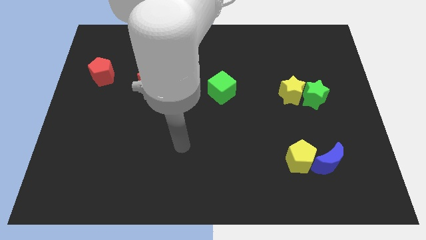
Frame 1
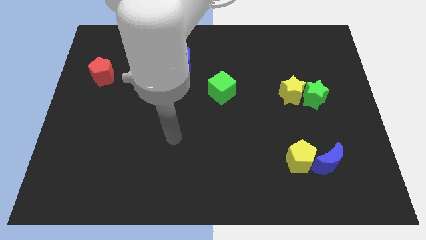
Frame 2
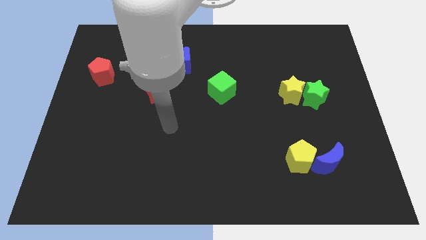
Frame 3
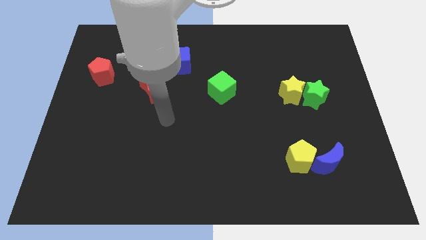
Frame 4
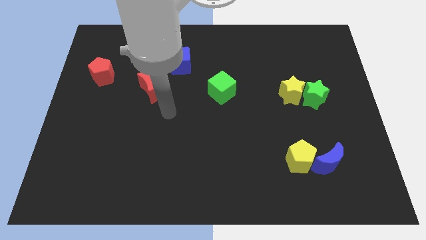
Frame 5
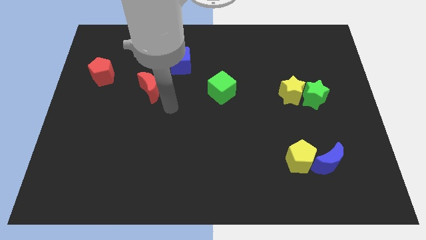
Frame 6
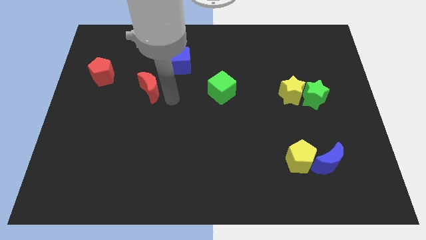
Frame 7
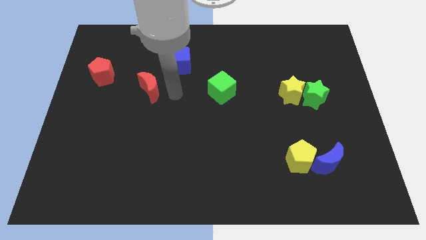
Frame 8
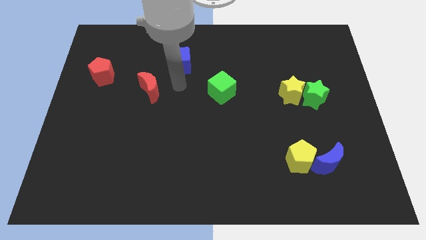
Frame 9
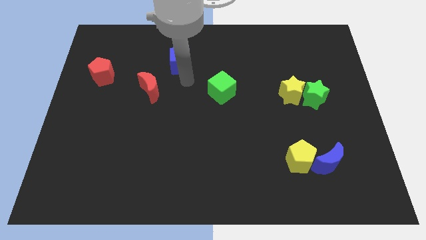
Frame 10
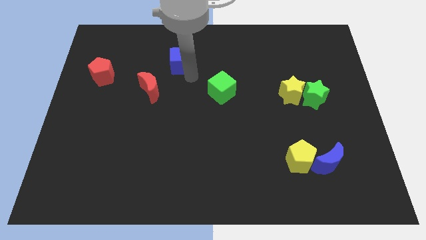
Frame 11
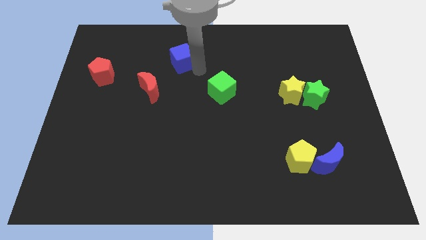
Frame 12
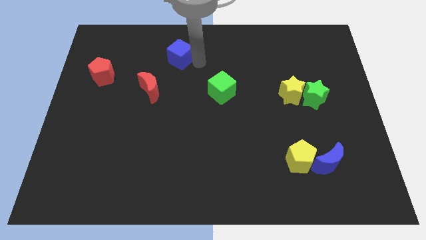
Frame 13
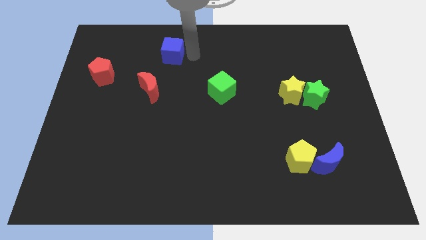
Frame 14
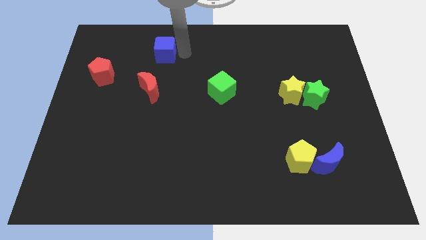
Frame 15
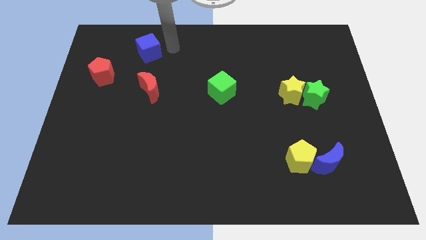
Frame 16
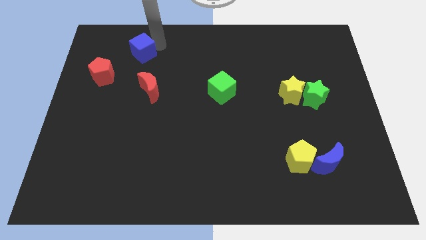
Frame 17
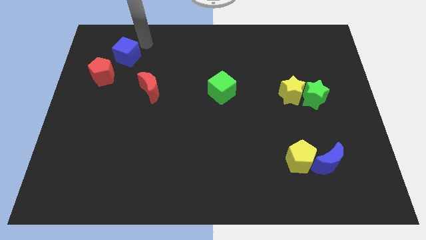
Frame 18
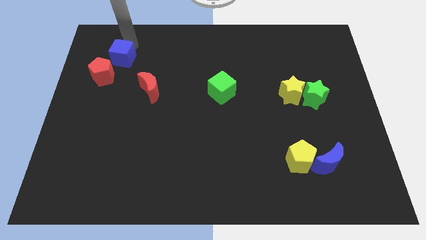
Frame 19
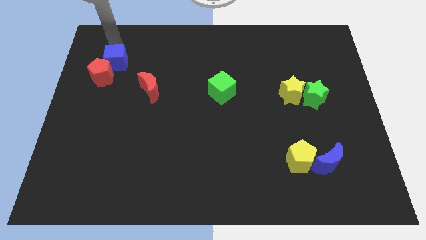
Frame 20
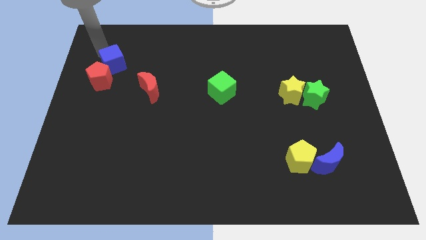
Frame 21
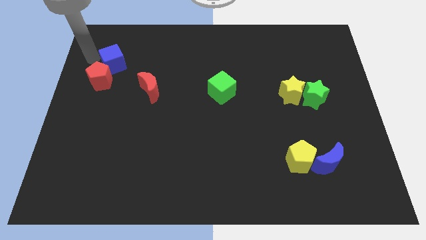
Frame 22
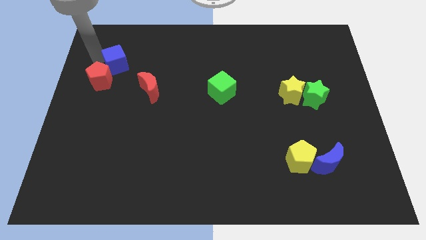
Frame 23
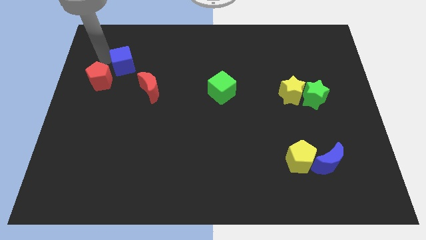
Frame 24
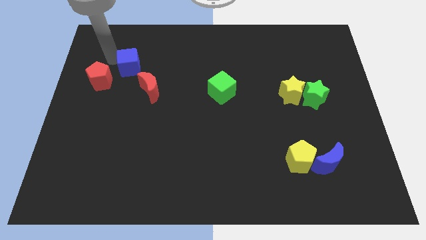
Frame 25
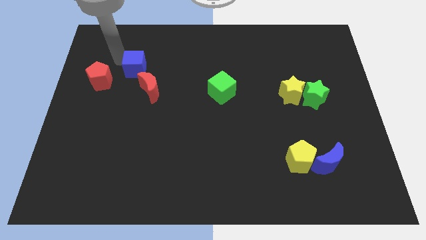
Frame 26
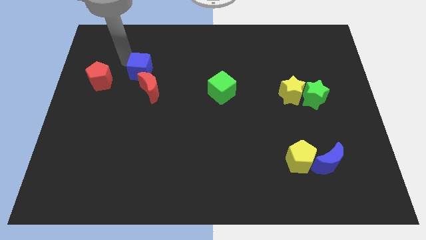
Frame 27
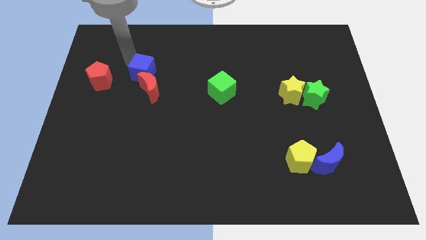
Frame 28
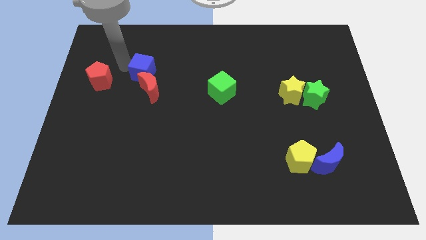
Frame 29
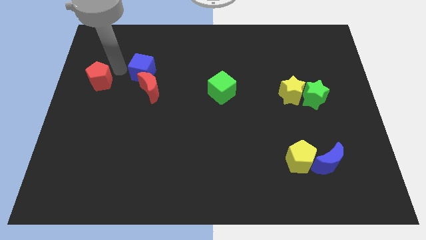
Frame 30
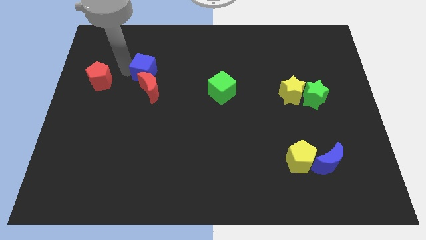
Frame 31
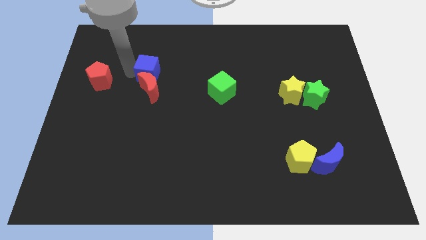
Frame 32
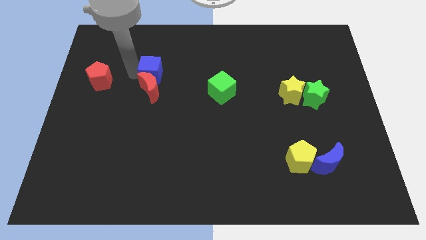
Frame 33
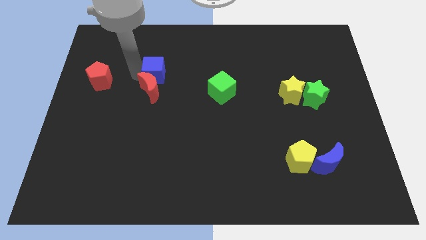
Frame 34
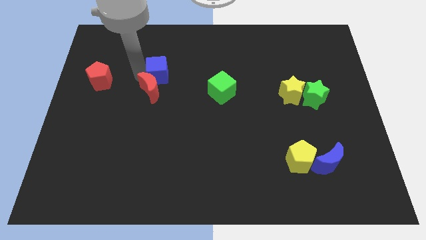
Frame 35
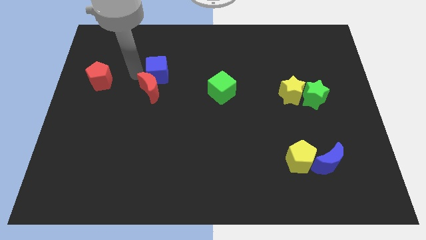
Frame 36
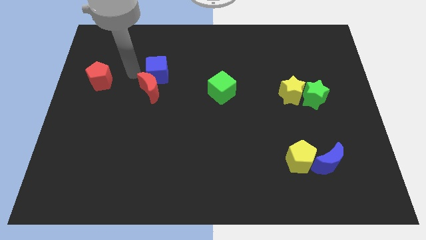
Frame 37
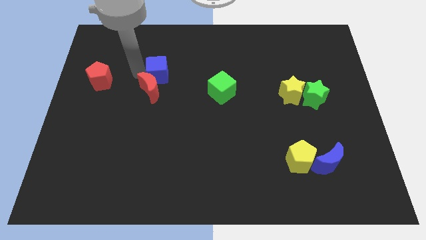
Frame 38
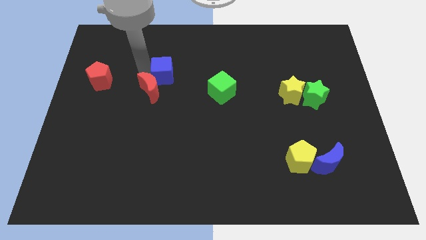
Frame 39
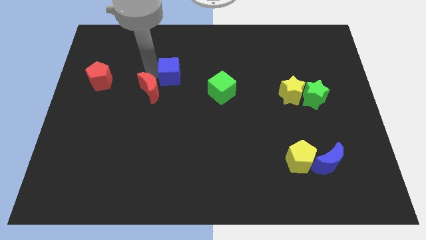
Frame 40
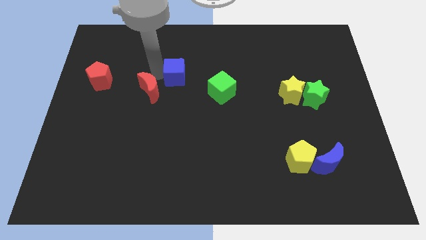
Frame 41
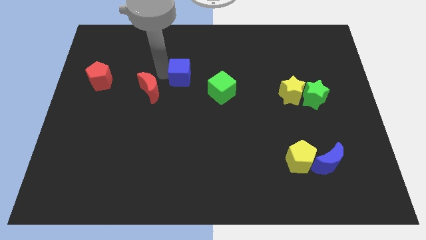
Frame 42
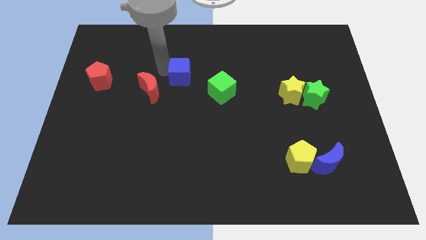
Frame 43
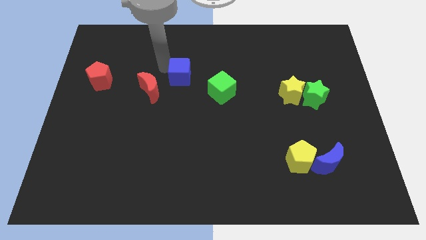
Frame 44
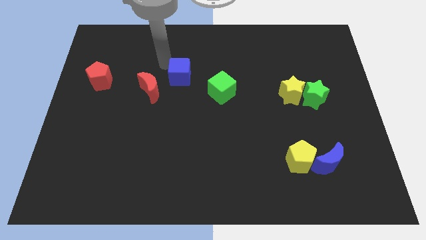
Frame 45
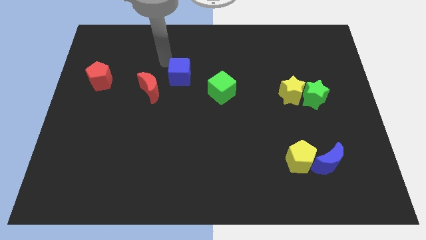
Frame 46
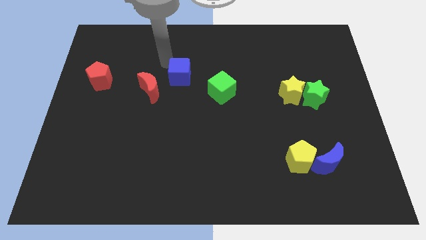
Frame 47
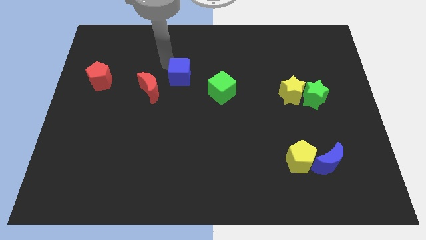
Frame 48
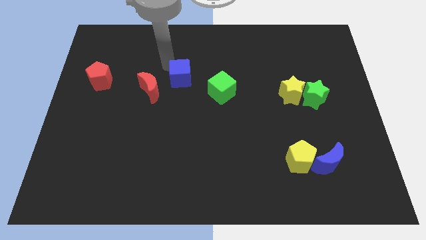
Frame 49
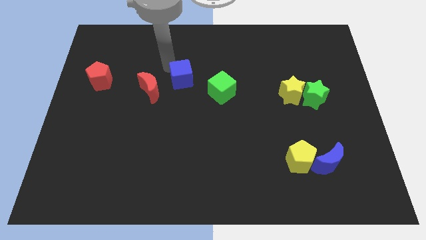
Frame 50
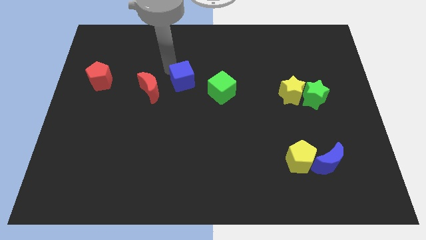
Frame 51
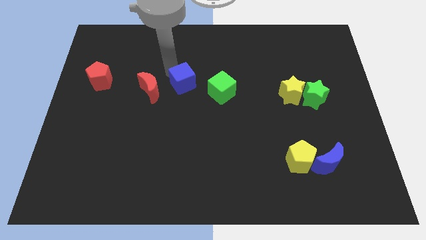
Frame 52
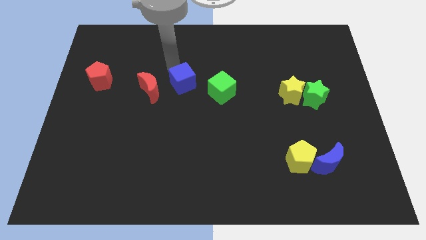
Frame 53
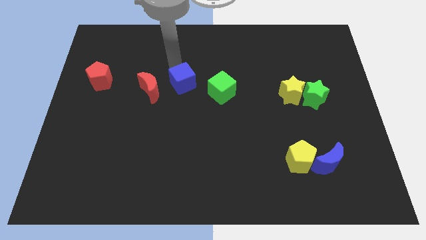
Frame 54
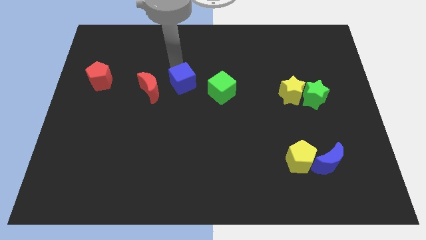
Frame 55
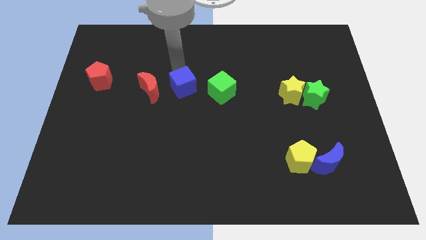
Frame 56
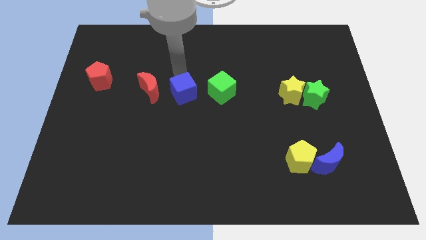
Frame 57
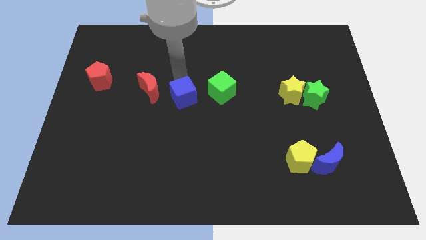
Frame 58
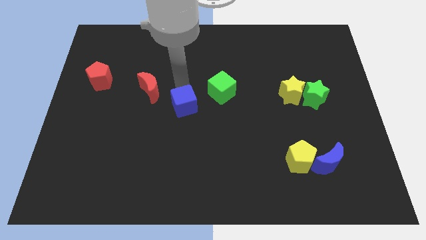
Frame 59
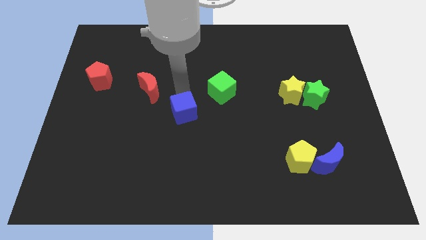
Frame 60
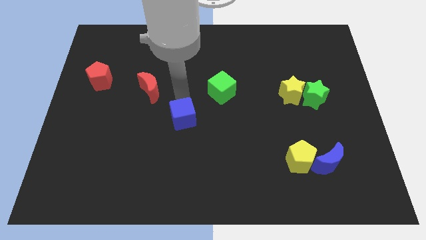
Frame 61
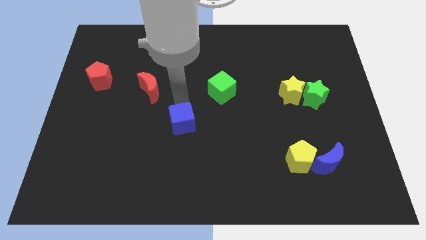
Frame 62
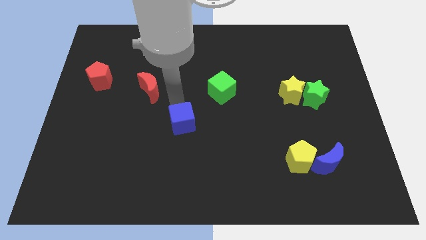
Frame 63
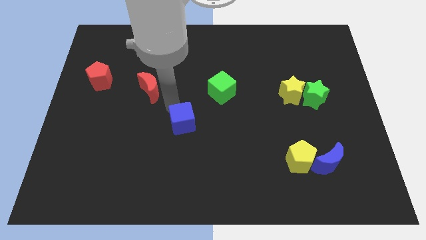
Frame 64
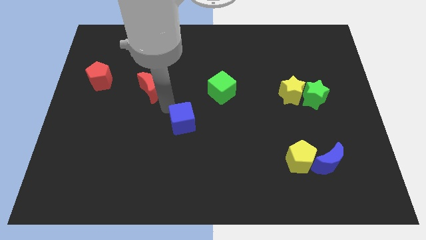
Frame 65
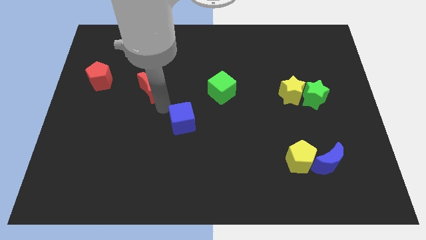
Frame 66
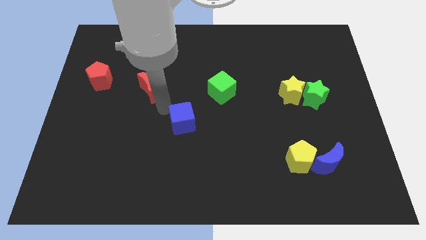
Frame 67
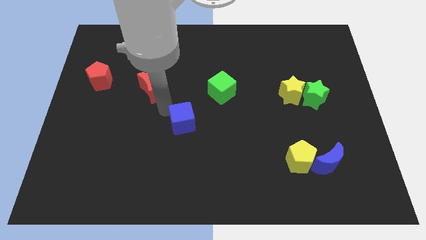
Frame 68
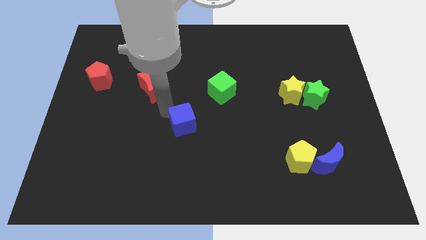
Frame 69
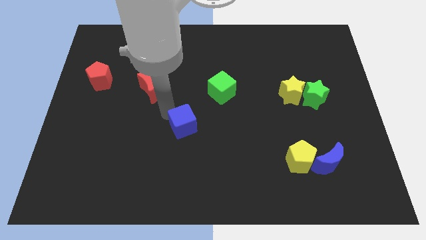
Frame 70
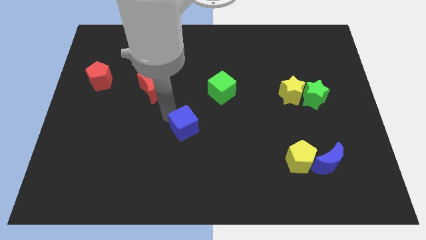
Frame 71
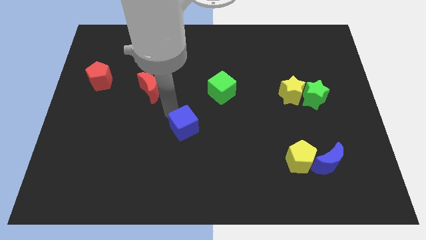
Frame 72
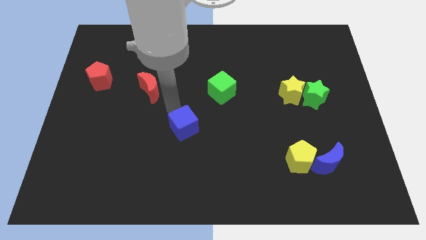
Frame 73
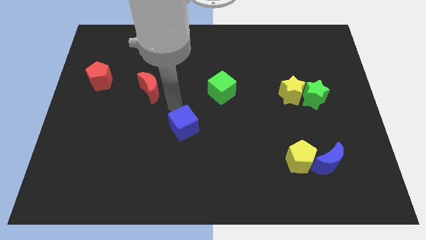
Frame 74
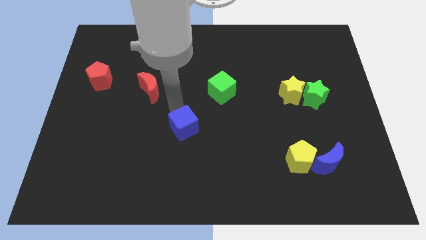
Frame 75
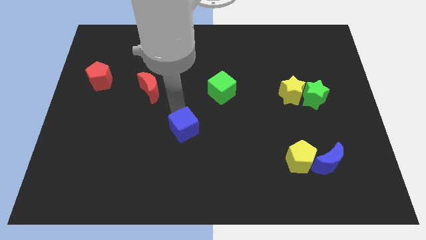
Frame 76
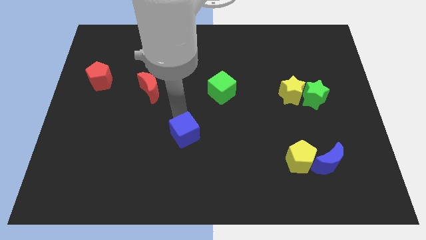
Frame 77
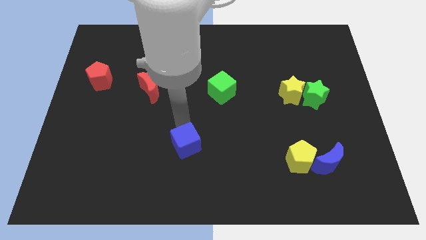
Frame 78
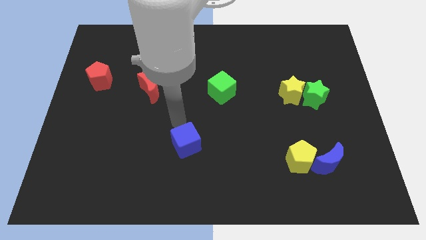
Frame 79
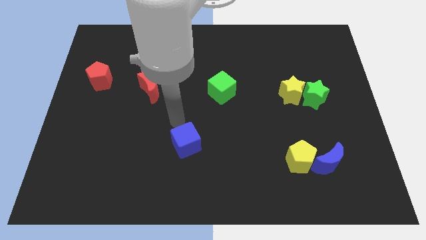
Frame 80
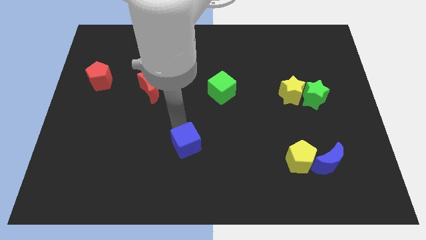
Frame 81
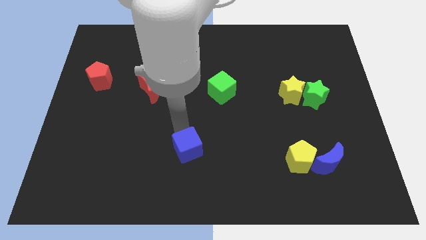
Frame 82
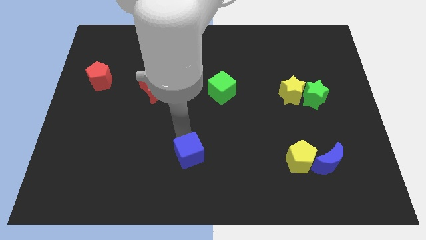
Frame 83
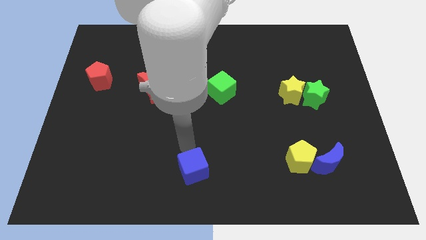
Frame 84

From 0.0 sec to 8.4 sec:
put the blue cube to the bottom side
